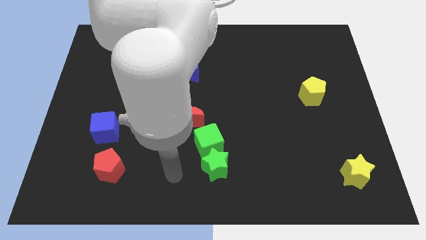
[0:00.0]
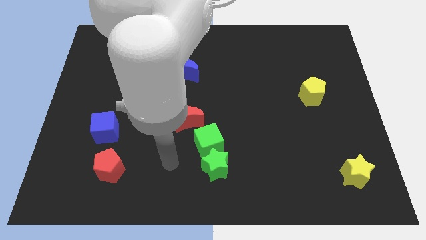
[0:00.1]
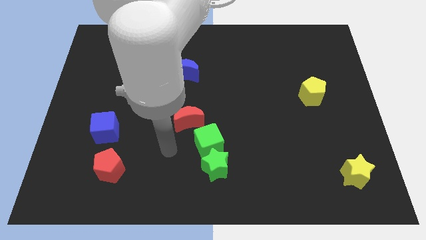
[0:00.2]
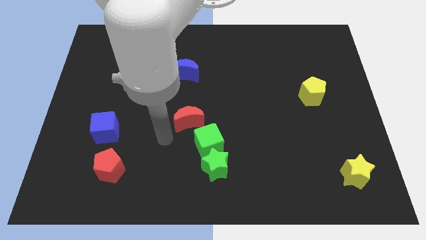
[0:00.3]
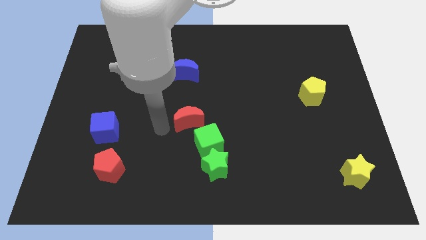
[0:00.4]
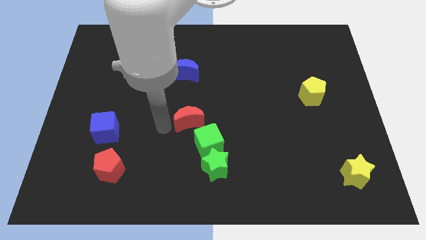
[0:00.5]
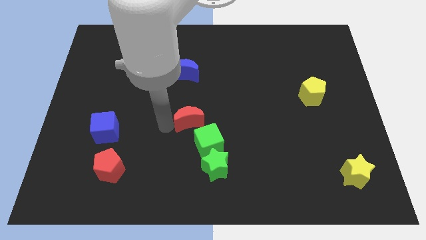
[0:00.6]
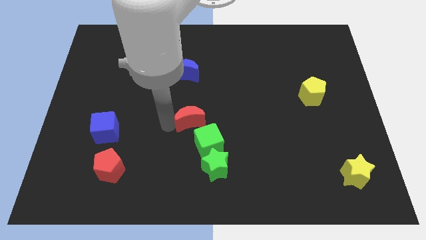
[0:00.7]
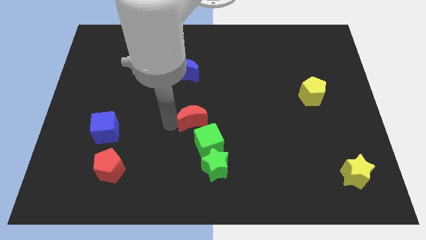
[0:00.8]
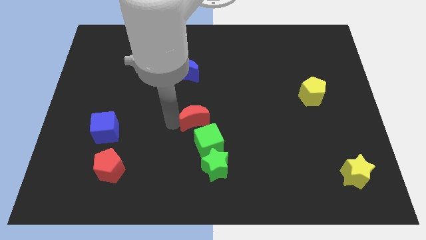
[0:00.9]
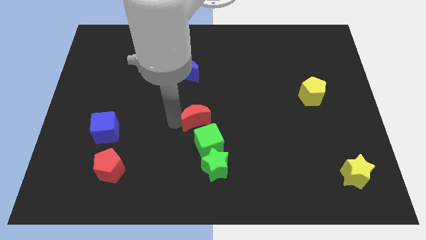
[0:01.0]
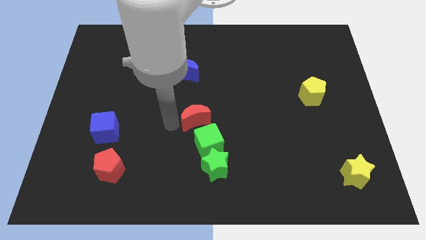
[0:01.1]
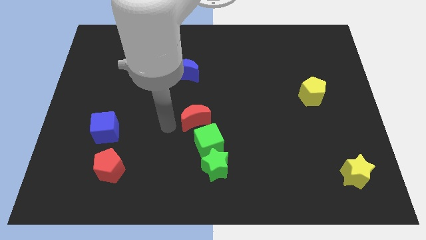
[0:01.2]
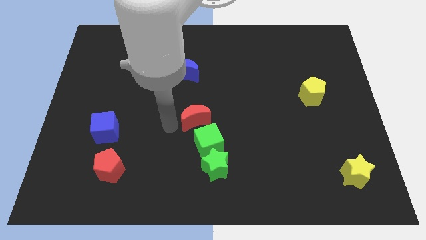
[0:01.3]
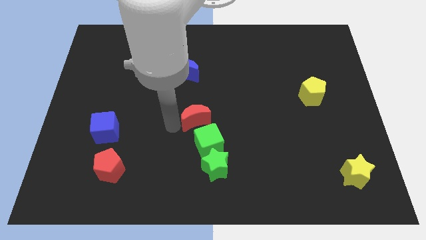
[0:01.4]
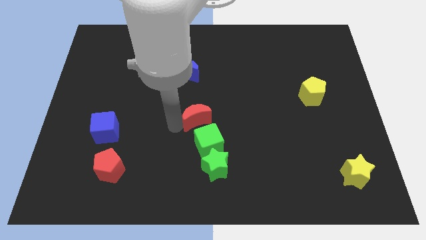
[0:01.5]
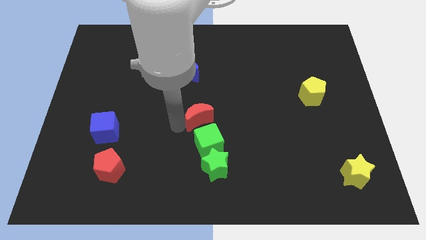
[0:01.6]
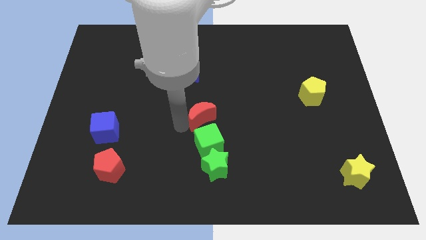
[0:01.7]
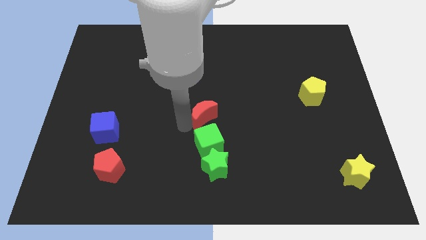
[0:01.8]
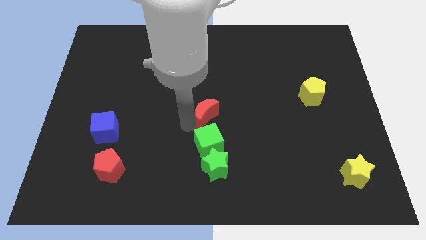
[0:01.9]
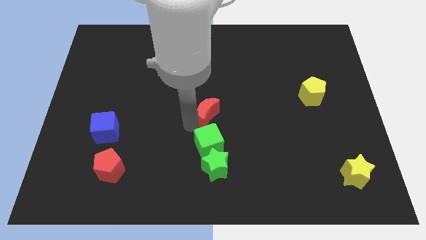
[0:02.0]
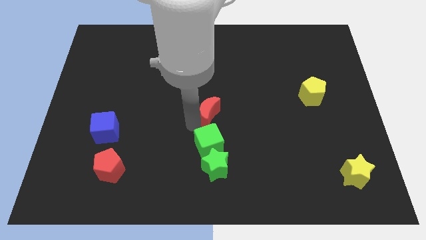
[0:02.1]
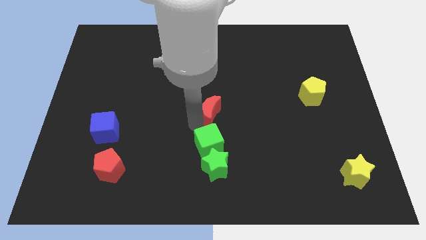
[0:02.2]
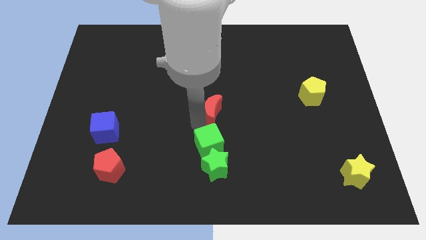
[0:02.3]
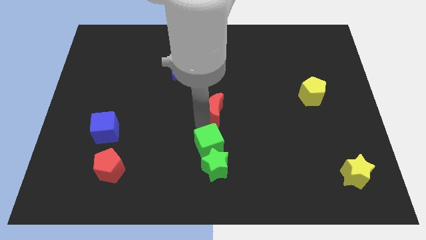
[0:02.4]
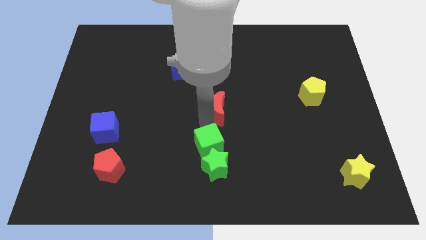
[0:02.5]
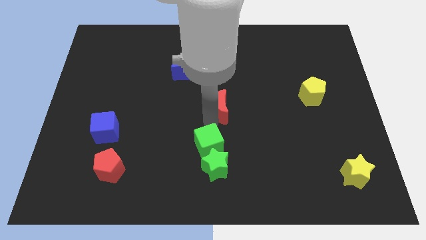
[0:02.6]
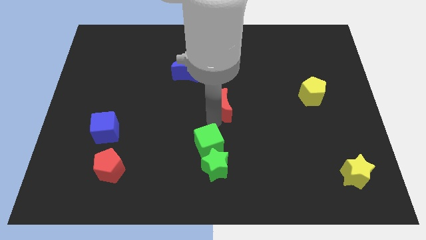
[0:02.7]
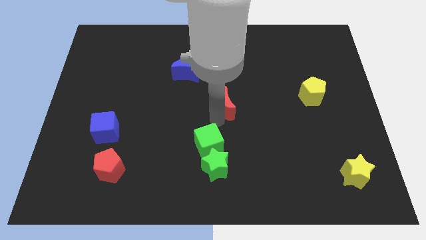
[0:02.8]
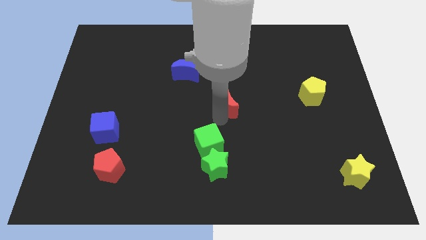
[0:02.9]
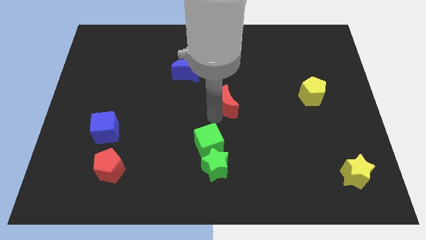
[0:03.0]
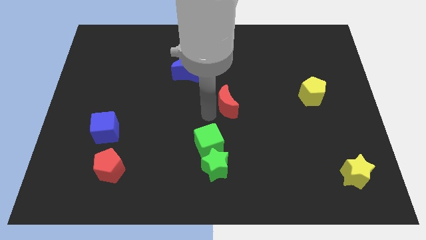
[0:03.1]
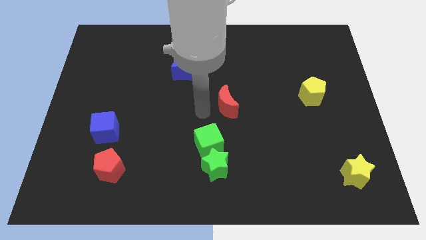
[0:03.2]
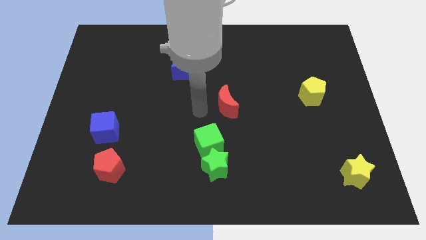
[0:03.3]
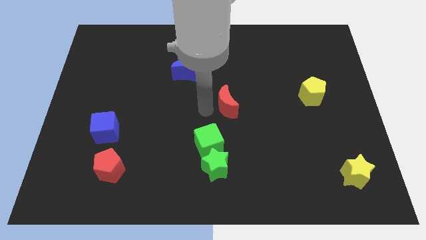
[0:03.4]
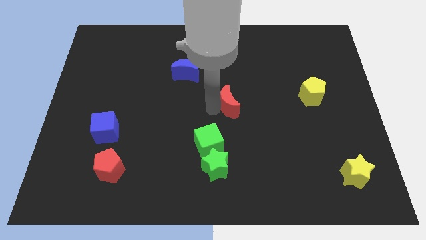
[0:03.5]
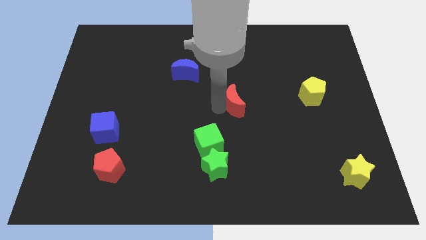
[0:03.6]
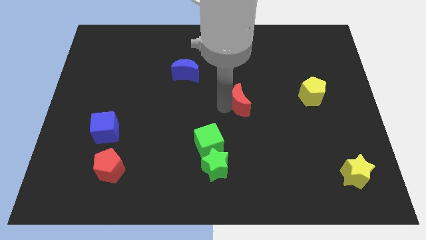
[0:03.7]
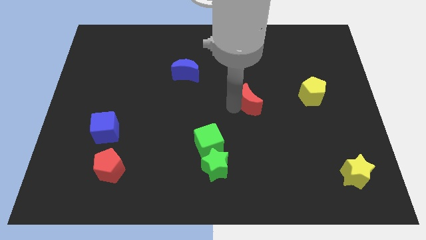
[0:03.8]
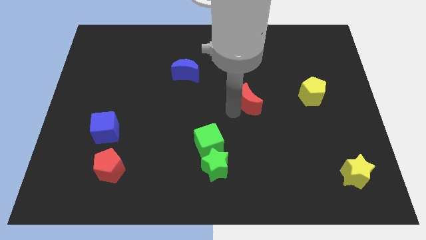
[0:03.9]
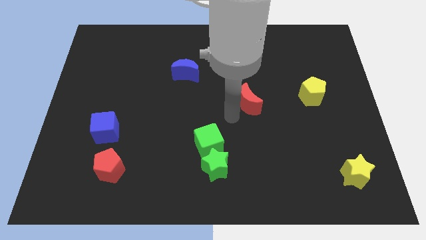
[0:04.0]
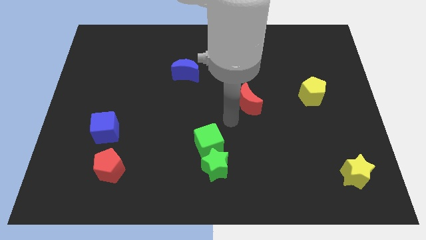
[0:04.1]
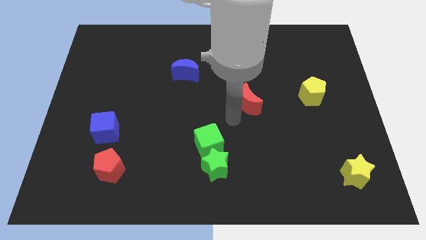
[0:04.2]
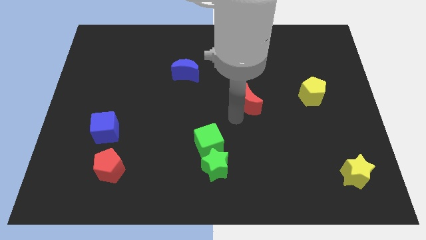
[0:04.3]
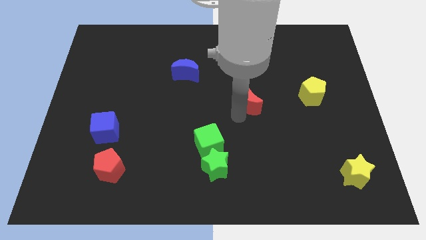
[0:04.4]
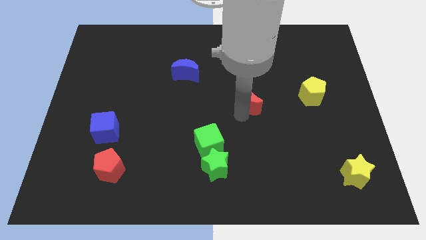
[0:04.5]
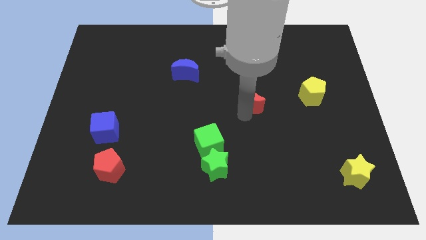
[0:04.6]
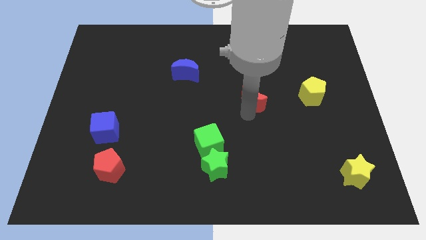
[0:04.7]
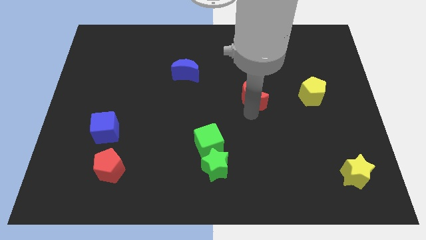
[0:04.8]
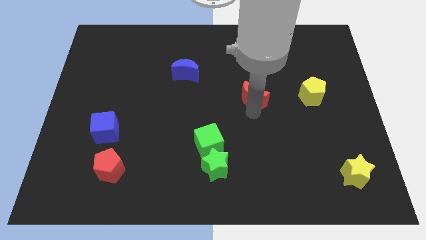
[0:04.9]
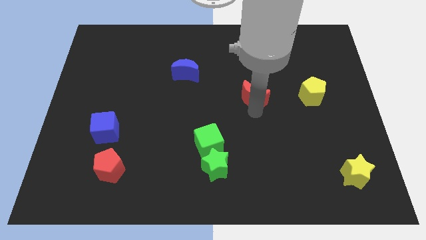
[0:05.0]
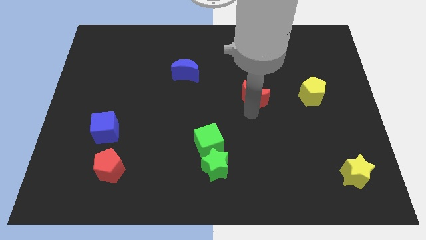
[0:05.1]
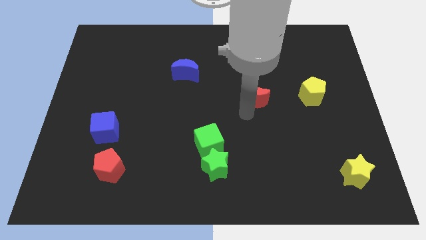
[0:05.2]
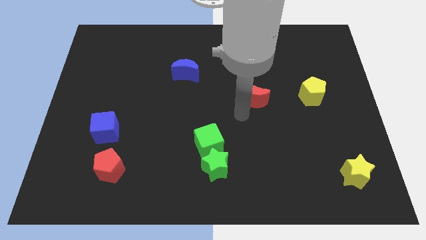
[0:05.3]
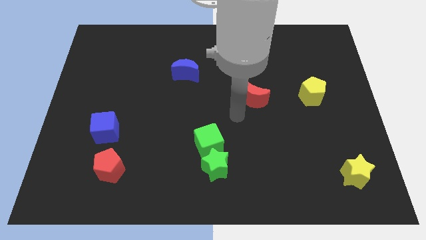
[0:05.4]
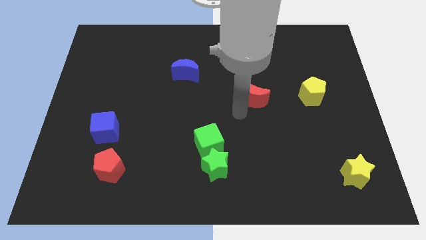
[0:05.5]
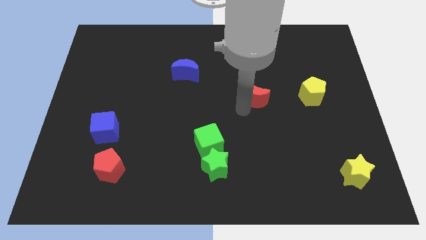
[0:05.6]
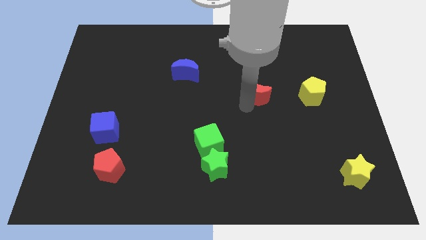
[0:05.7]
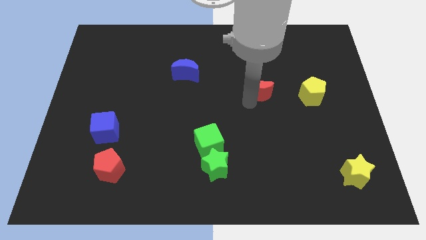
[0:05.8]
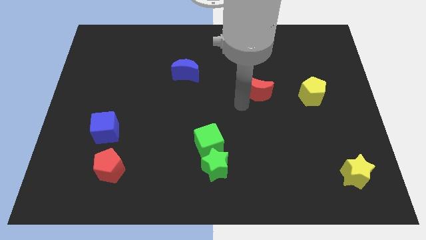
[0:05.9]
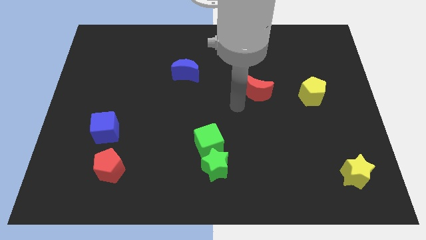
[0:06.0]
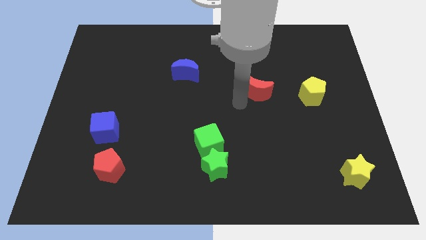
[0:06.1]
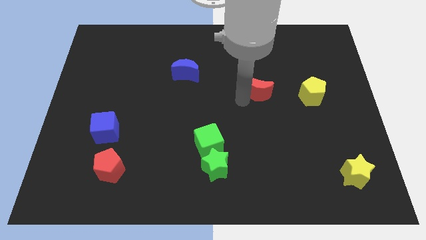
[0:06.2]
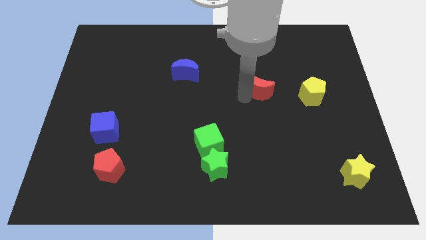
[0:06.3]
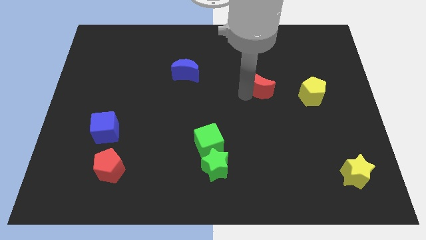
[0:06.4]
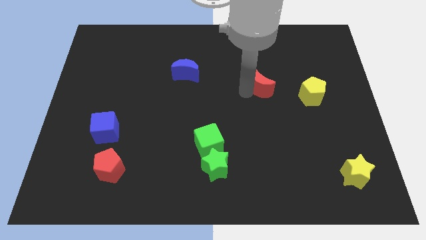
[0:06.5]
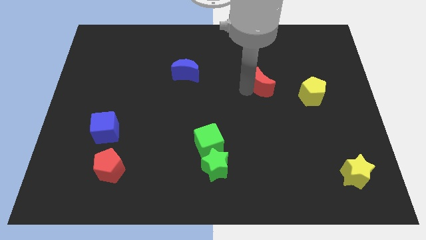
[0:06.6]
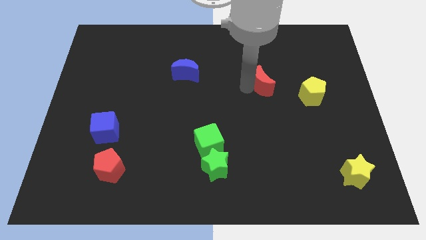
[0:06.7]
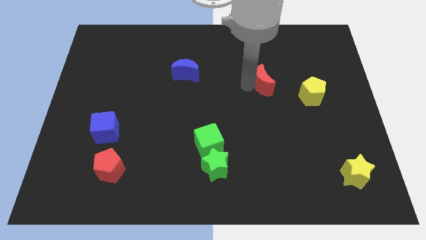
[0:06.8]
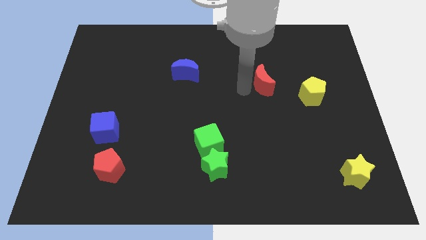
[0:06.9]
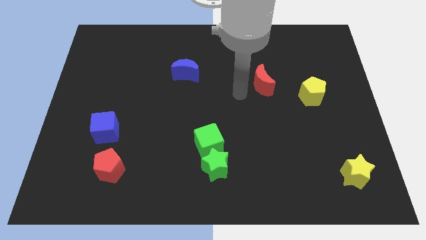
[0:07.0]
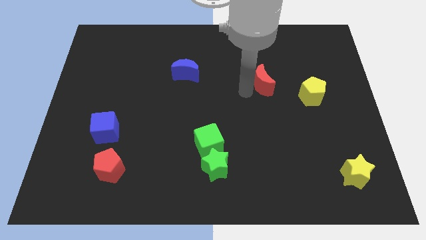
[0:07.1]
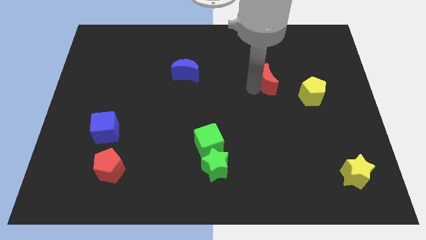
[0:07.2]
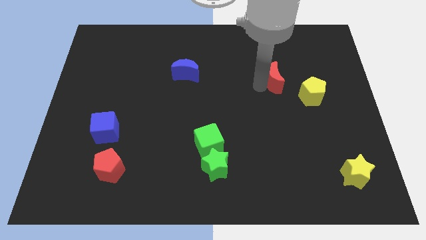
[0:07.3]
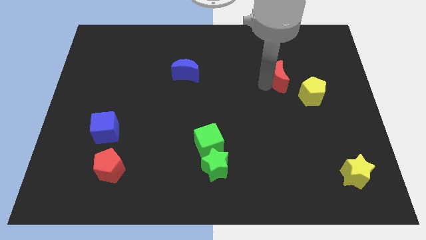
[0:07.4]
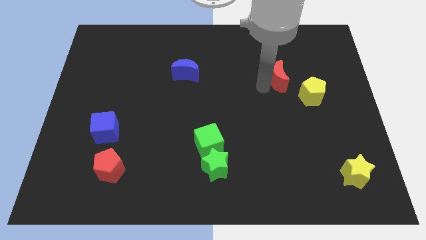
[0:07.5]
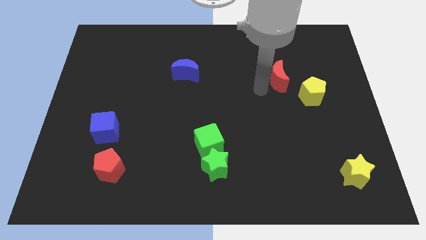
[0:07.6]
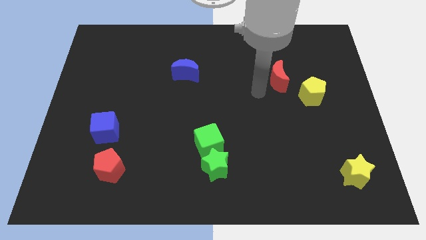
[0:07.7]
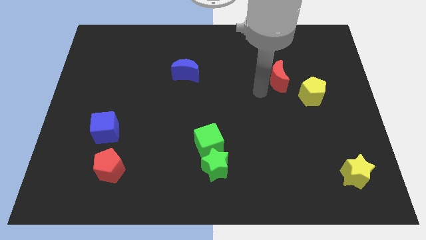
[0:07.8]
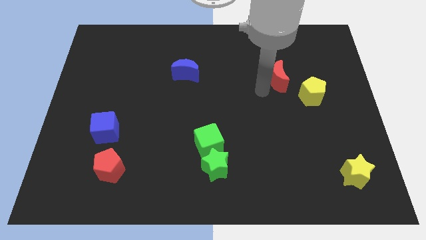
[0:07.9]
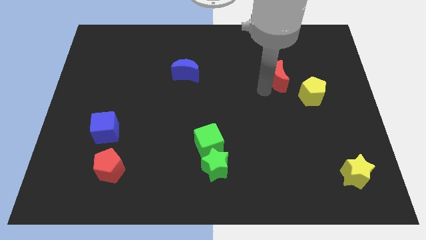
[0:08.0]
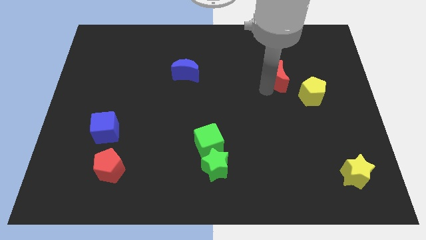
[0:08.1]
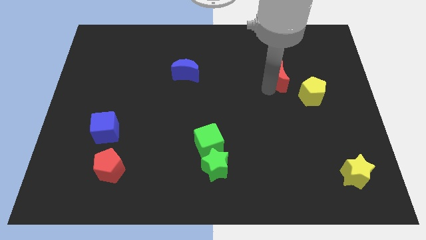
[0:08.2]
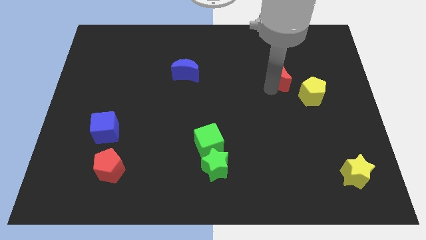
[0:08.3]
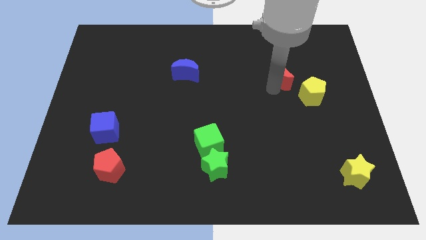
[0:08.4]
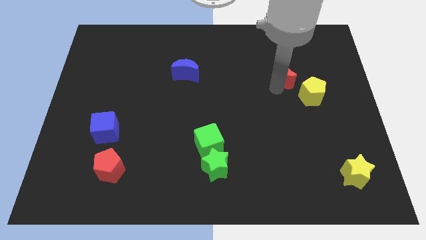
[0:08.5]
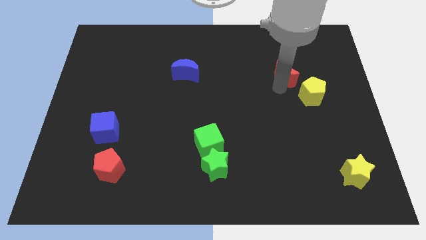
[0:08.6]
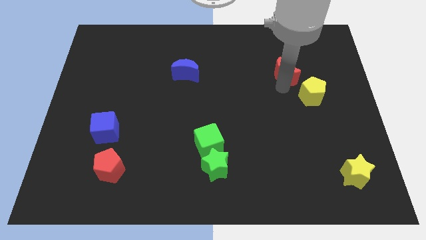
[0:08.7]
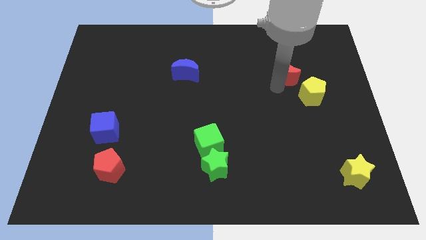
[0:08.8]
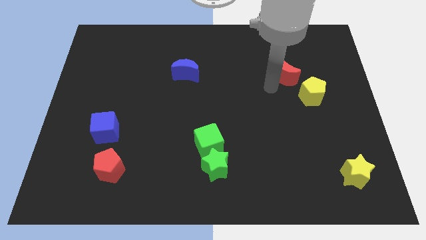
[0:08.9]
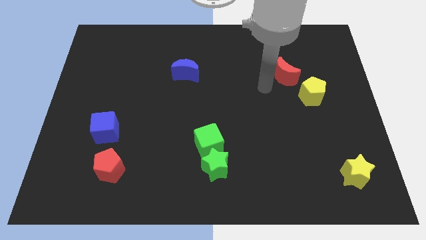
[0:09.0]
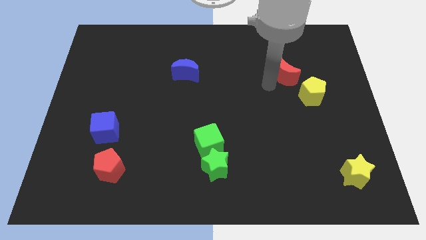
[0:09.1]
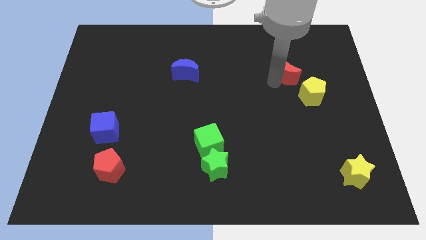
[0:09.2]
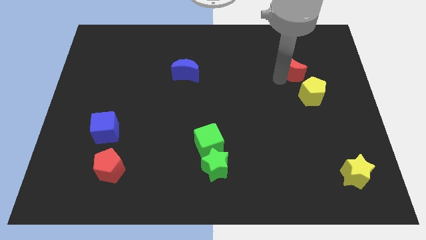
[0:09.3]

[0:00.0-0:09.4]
slide the red moon to the top side of the yellow pentagon
